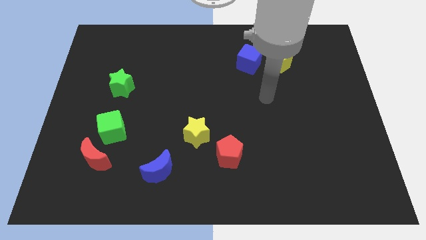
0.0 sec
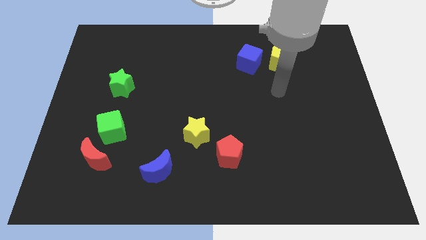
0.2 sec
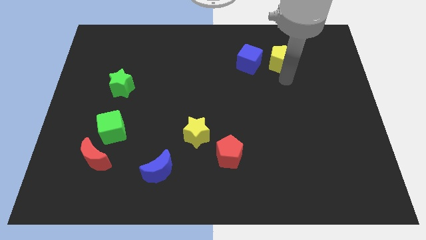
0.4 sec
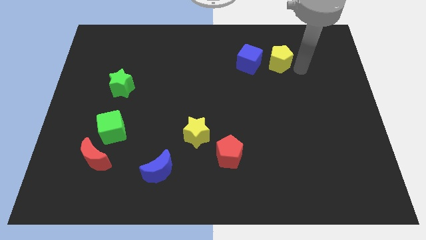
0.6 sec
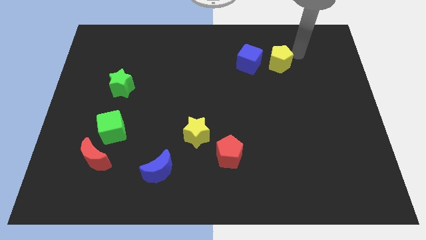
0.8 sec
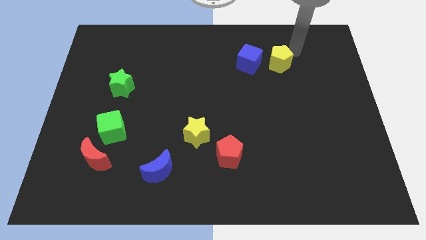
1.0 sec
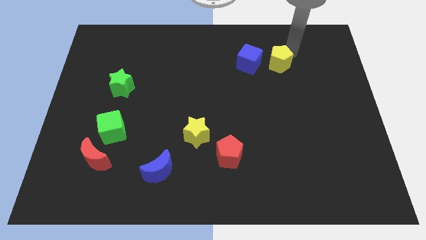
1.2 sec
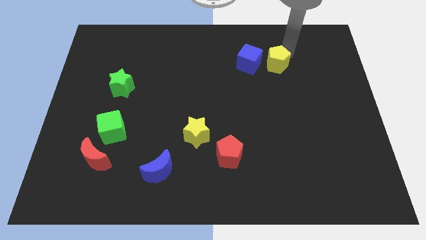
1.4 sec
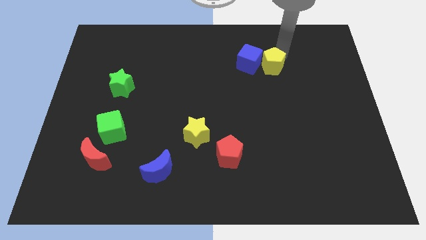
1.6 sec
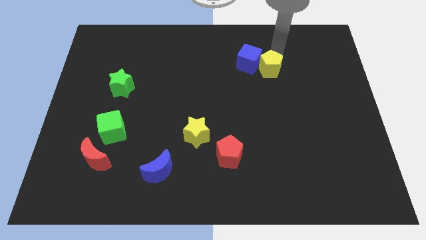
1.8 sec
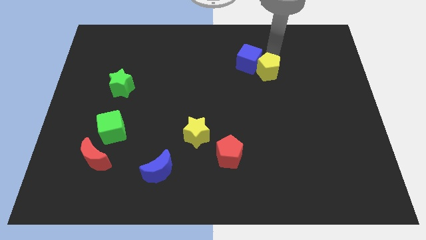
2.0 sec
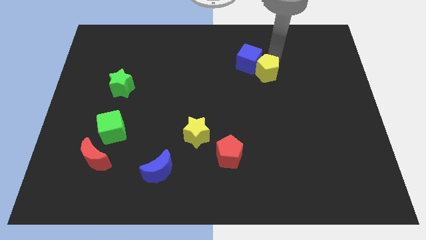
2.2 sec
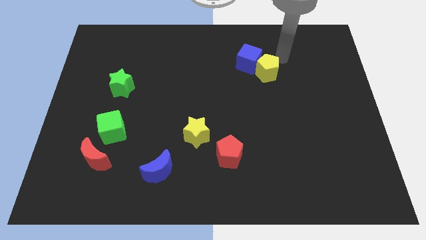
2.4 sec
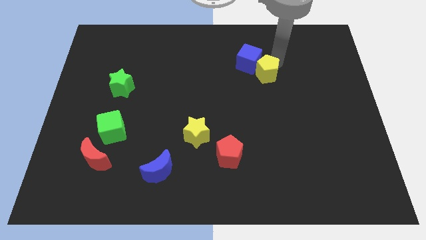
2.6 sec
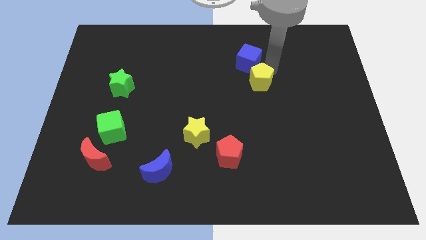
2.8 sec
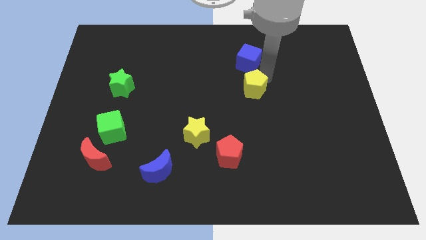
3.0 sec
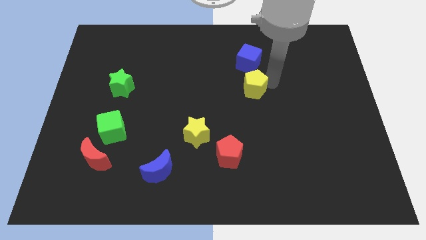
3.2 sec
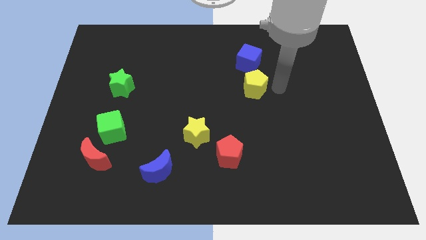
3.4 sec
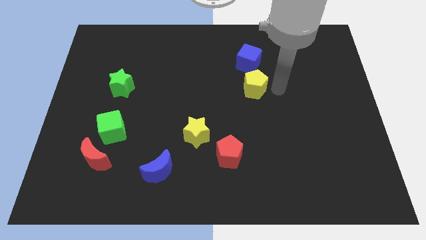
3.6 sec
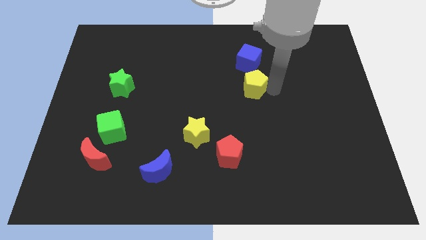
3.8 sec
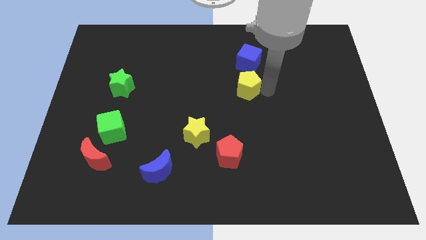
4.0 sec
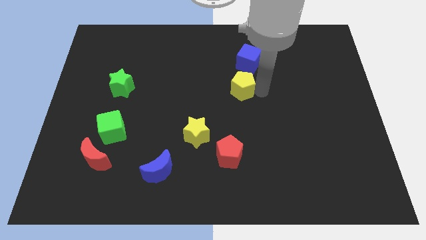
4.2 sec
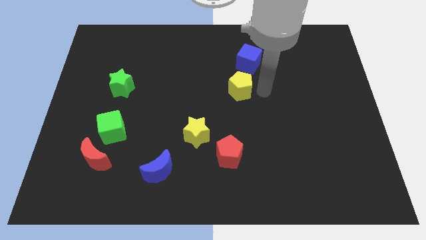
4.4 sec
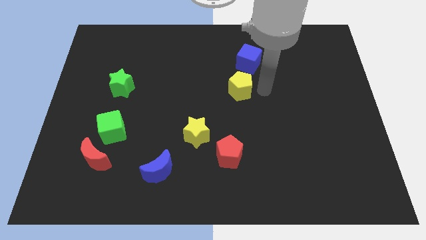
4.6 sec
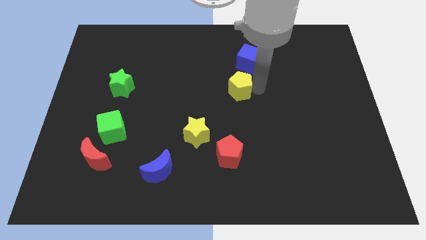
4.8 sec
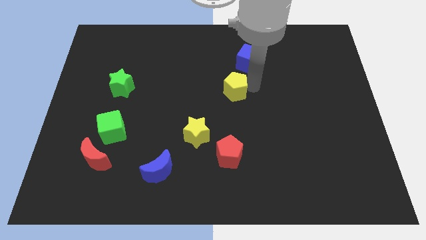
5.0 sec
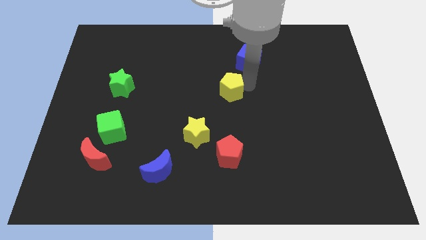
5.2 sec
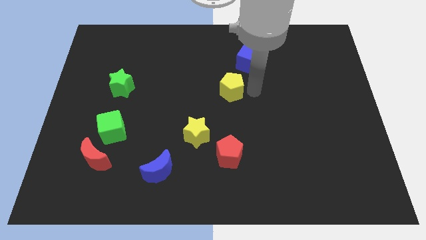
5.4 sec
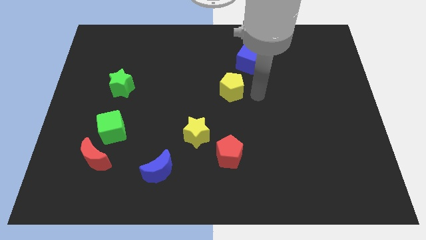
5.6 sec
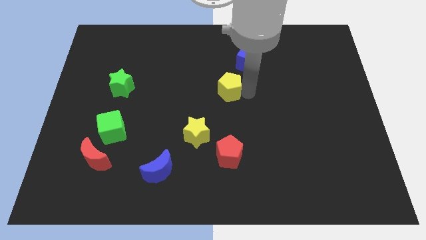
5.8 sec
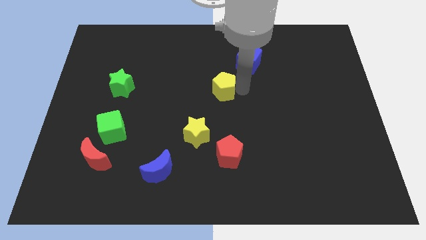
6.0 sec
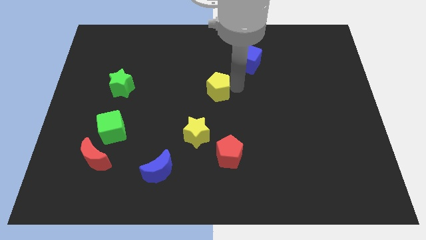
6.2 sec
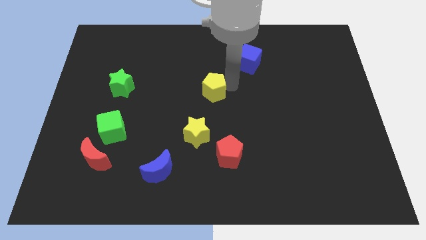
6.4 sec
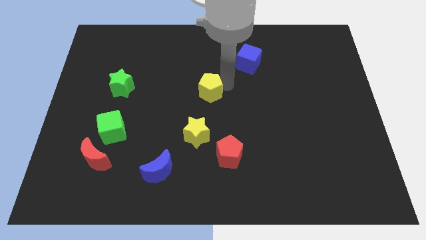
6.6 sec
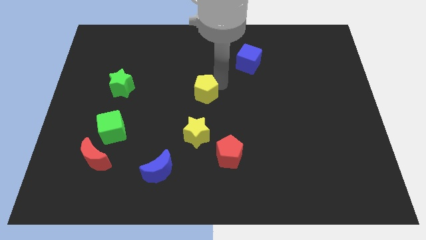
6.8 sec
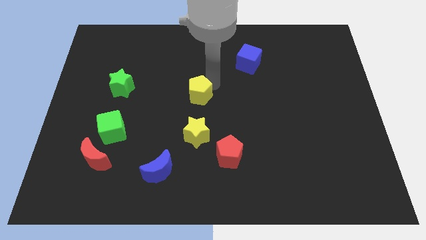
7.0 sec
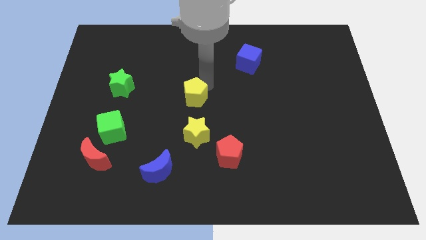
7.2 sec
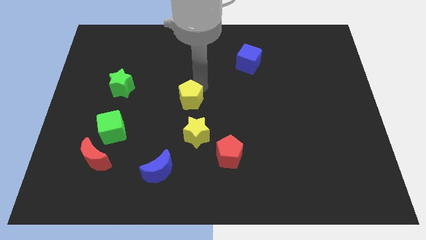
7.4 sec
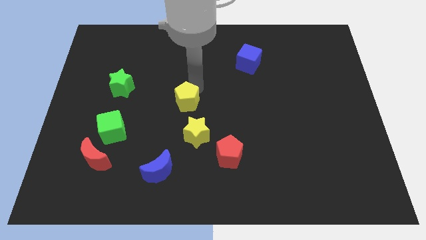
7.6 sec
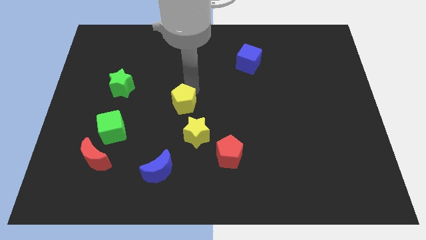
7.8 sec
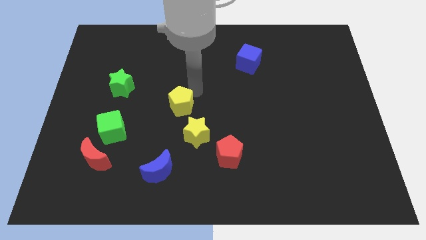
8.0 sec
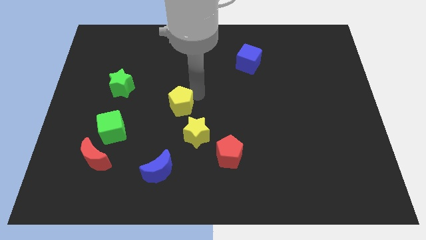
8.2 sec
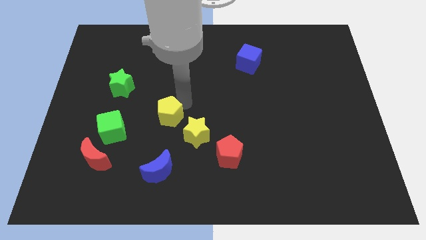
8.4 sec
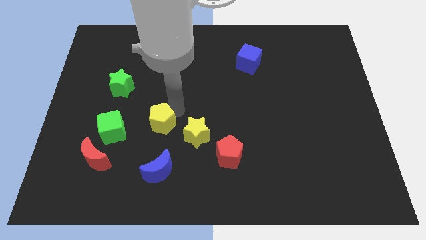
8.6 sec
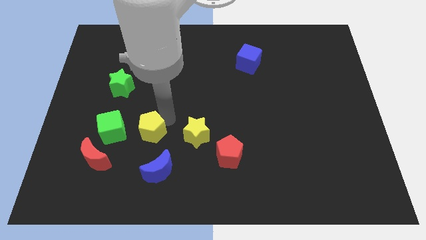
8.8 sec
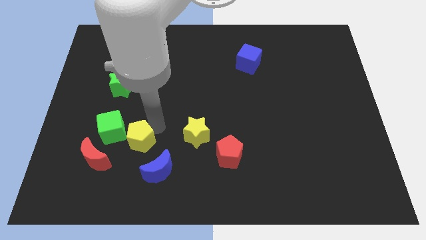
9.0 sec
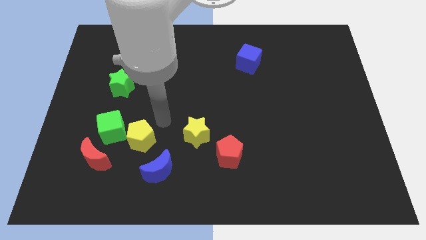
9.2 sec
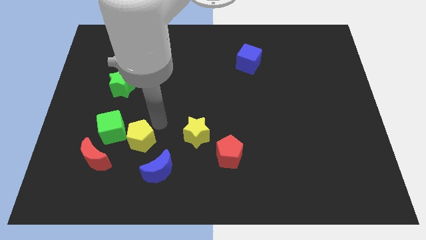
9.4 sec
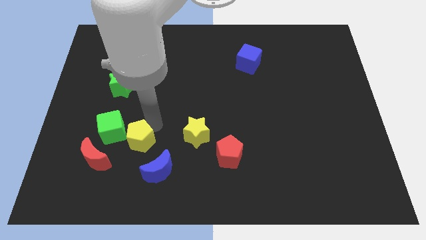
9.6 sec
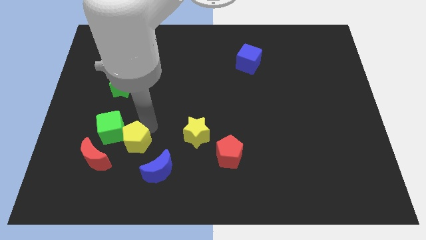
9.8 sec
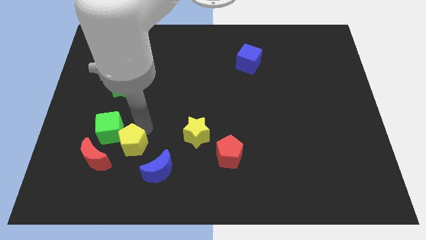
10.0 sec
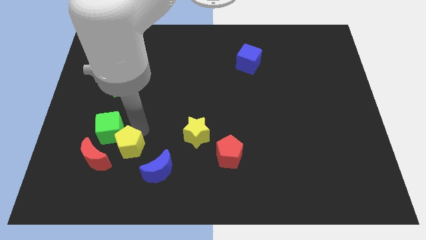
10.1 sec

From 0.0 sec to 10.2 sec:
put the yellow pentagon to the bottom side of the green cube

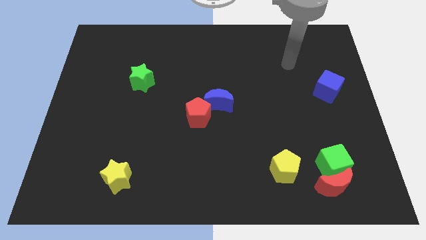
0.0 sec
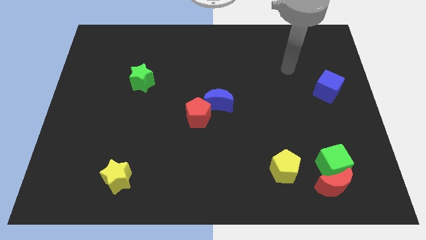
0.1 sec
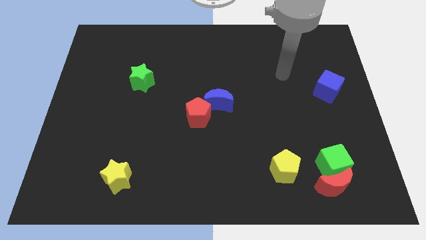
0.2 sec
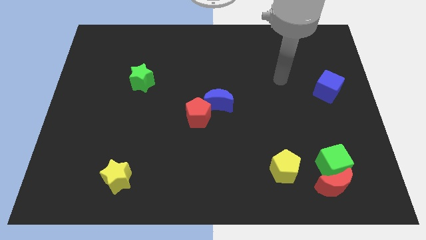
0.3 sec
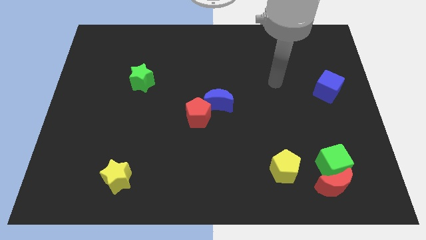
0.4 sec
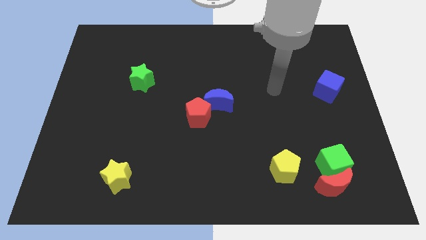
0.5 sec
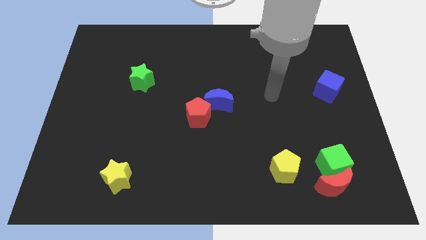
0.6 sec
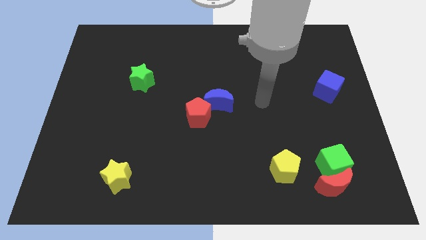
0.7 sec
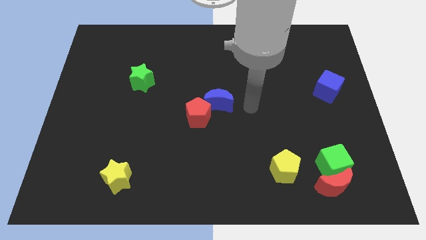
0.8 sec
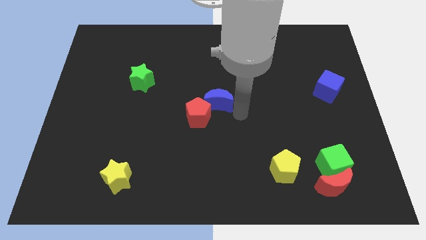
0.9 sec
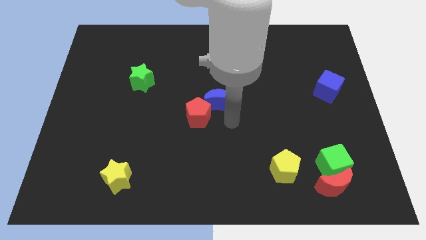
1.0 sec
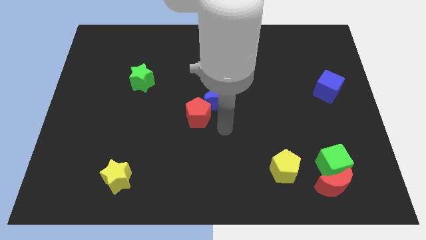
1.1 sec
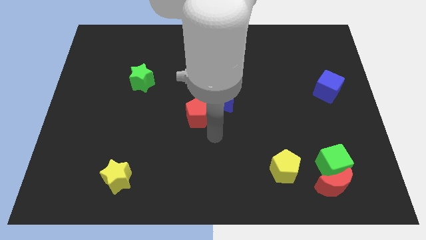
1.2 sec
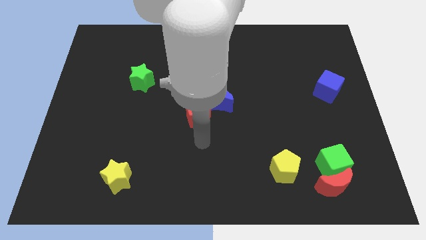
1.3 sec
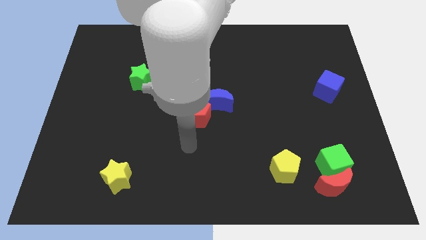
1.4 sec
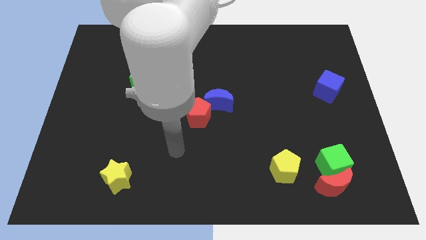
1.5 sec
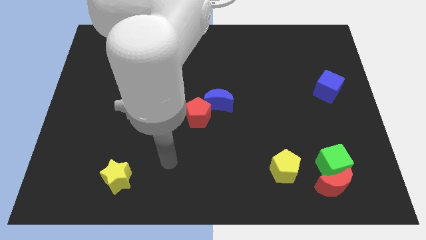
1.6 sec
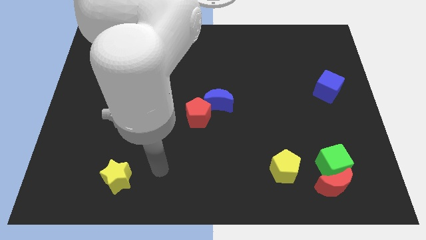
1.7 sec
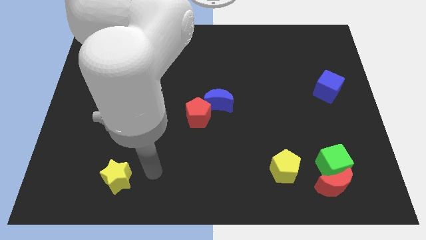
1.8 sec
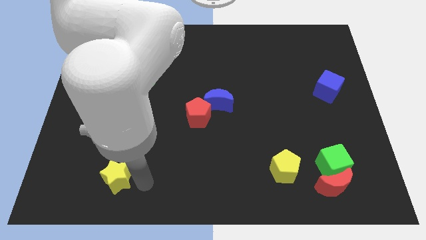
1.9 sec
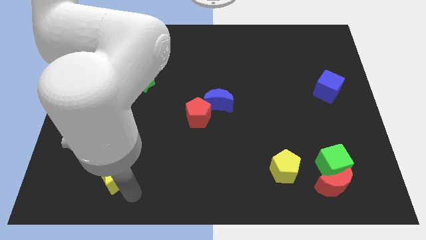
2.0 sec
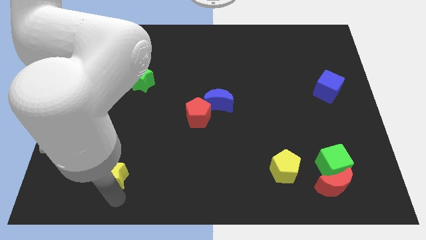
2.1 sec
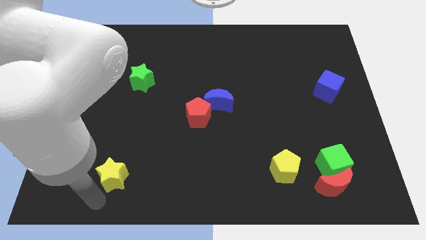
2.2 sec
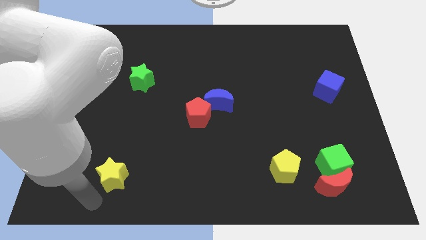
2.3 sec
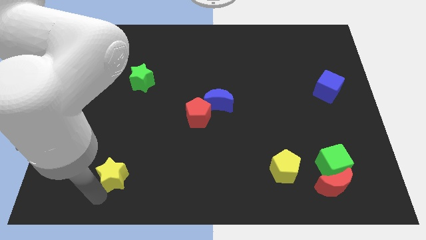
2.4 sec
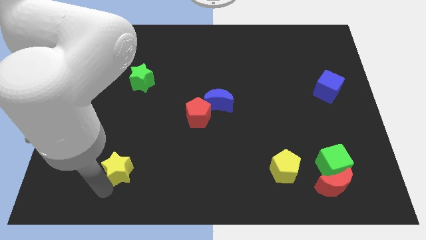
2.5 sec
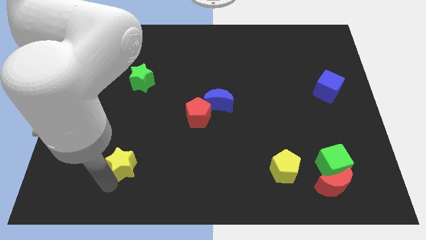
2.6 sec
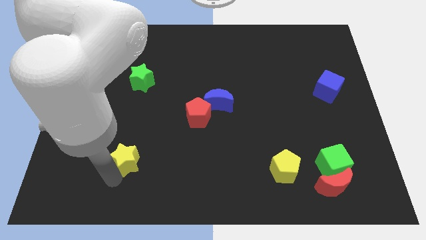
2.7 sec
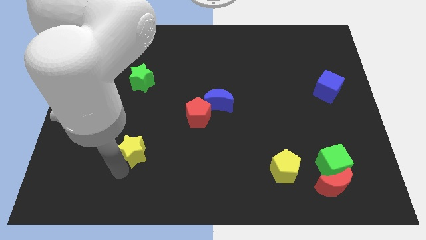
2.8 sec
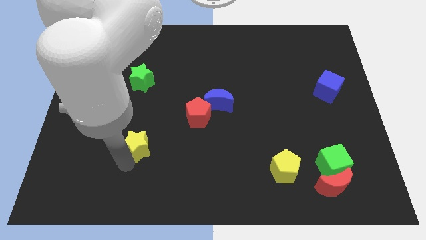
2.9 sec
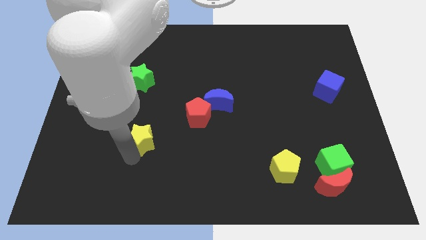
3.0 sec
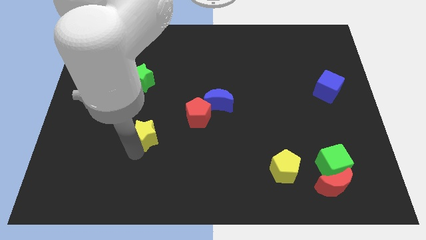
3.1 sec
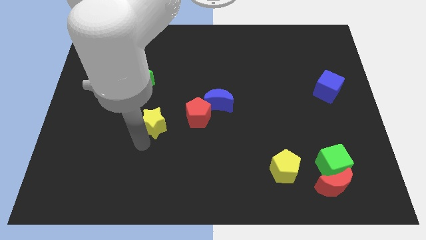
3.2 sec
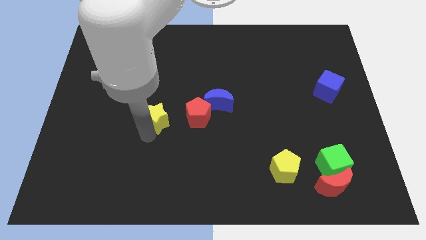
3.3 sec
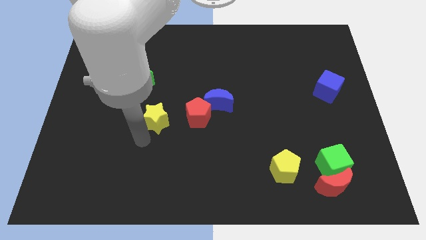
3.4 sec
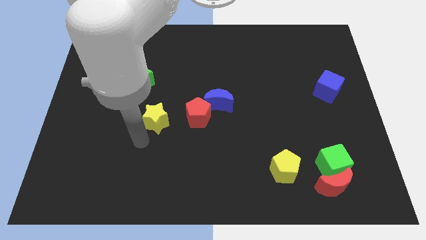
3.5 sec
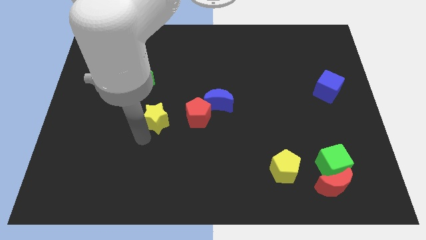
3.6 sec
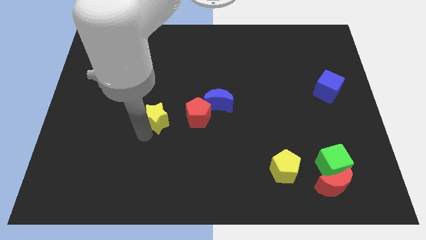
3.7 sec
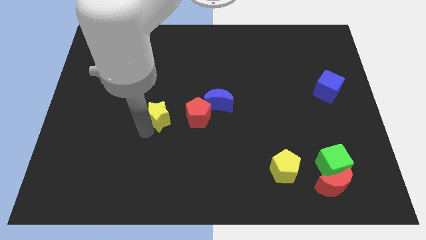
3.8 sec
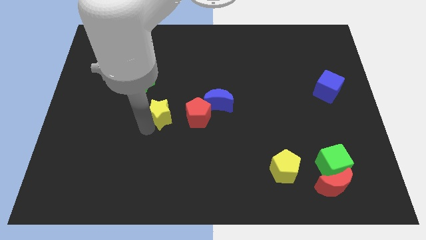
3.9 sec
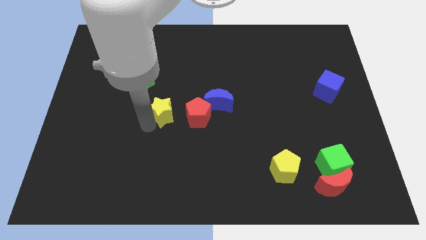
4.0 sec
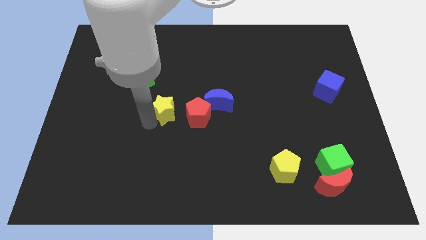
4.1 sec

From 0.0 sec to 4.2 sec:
push the yellow star to the top left of the red pentagon
